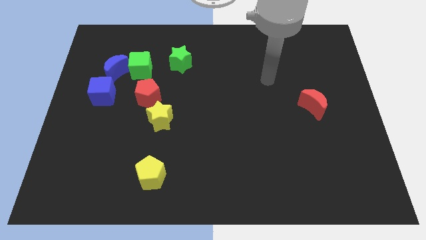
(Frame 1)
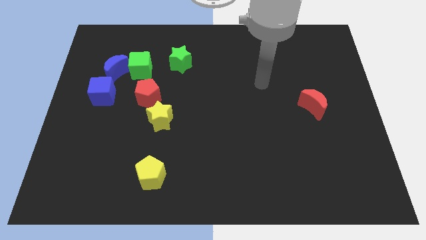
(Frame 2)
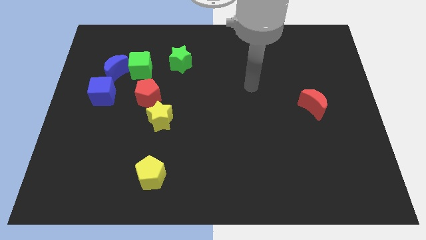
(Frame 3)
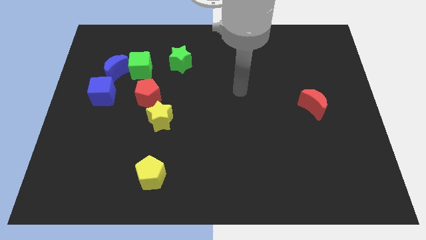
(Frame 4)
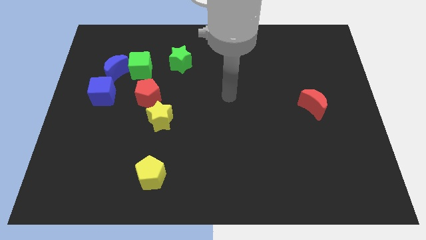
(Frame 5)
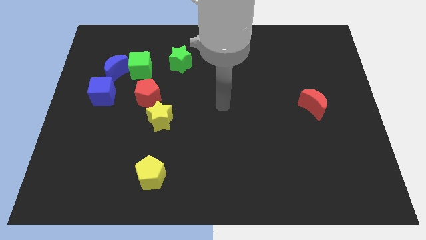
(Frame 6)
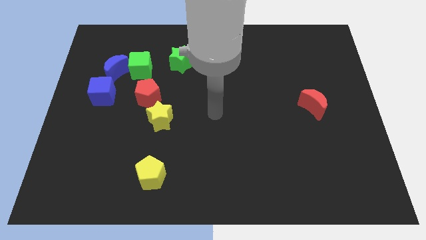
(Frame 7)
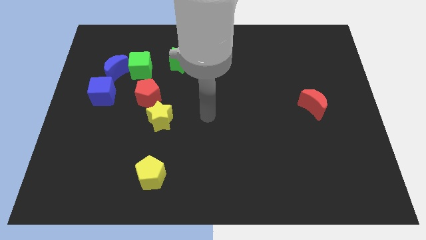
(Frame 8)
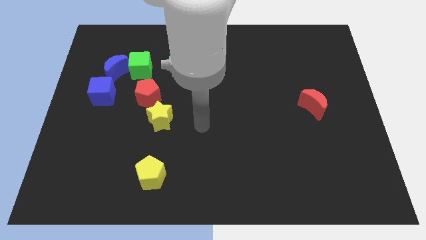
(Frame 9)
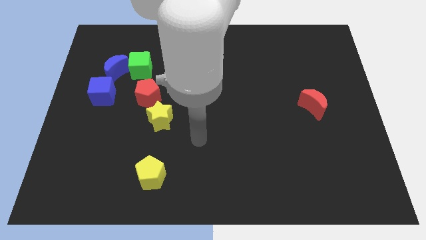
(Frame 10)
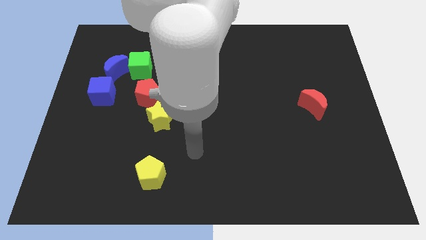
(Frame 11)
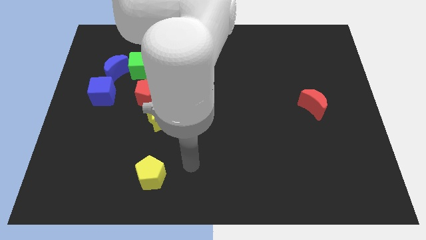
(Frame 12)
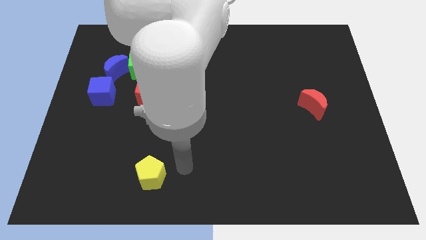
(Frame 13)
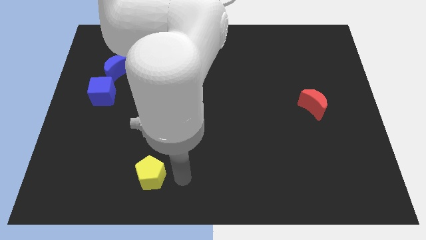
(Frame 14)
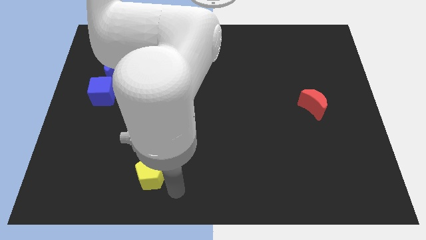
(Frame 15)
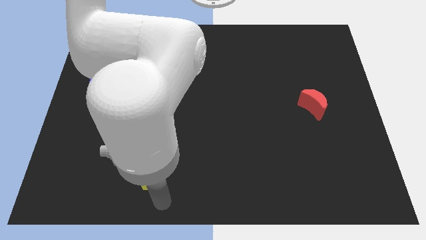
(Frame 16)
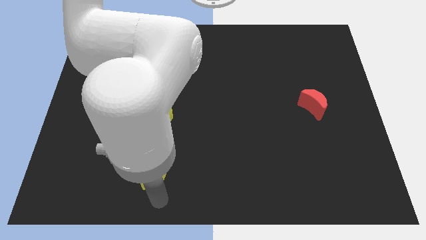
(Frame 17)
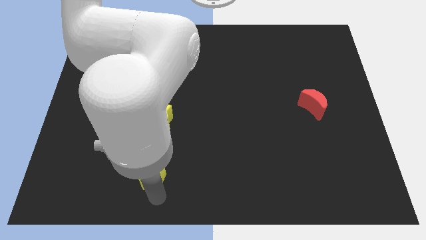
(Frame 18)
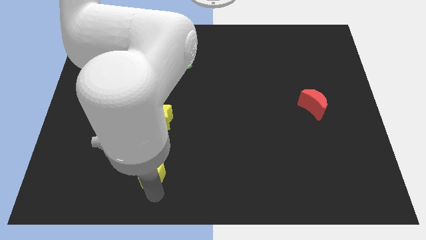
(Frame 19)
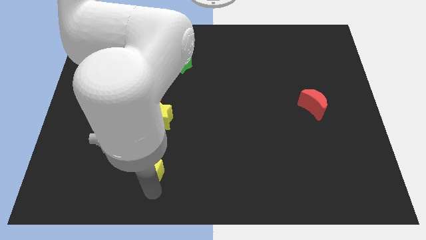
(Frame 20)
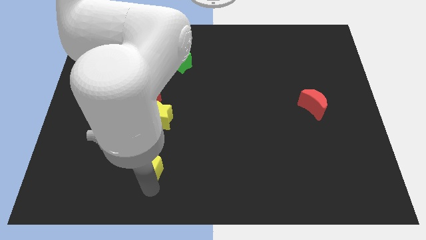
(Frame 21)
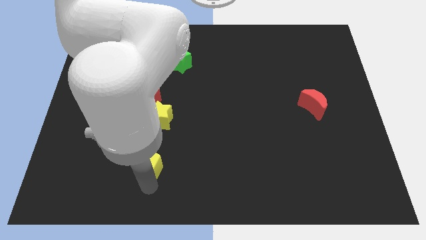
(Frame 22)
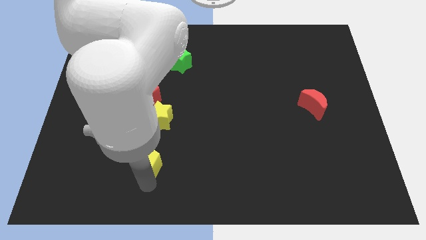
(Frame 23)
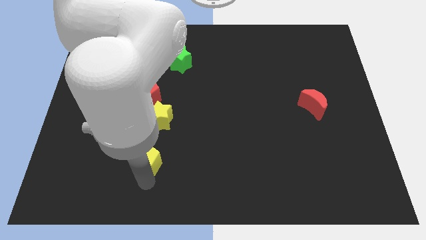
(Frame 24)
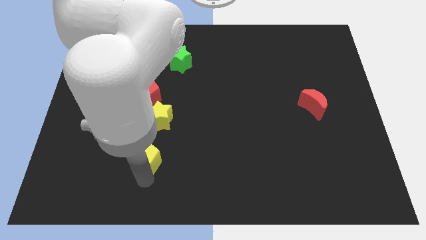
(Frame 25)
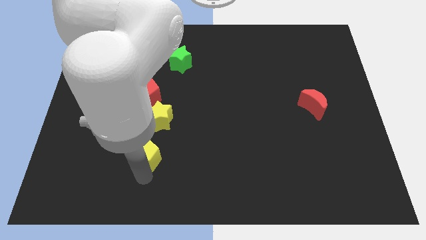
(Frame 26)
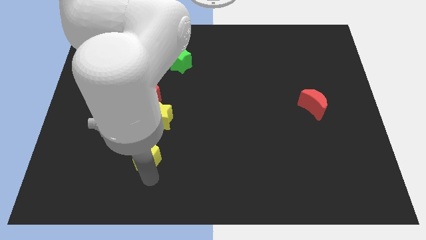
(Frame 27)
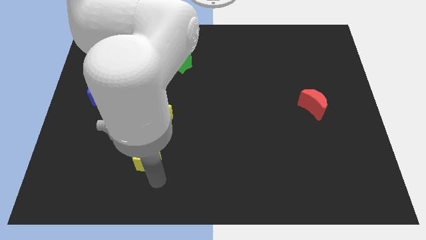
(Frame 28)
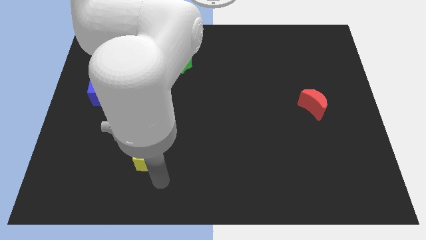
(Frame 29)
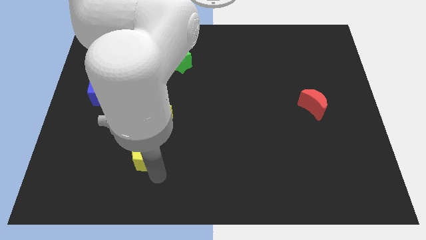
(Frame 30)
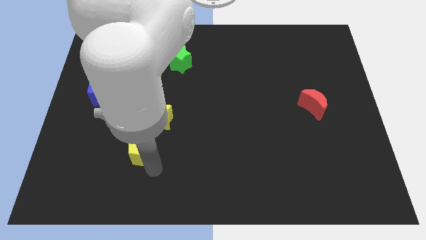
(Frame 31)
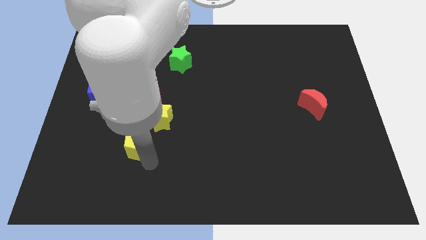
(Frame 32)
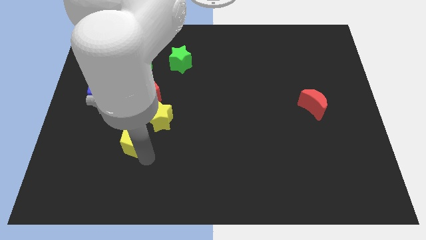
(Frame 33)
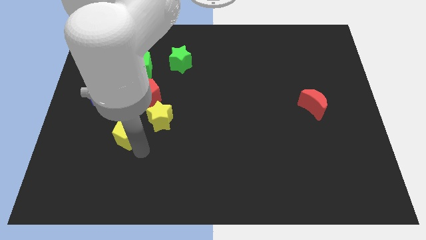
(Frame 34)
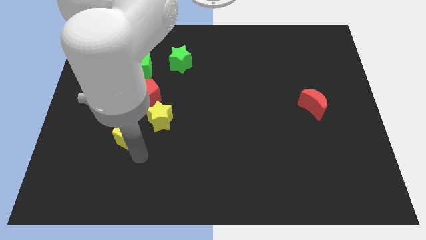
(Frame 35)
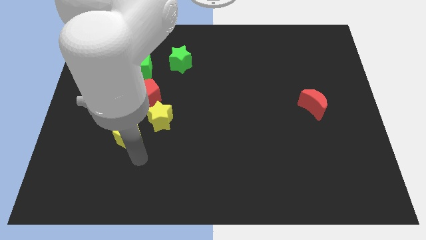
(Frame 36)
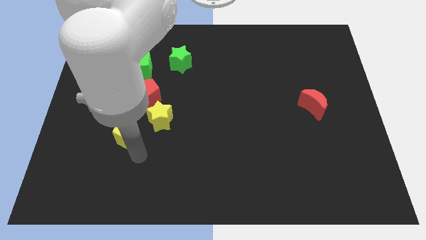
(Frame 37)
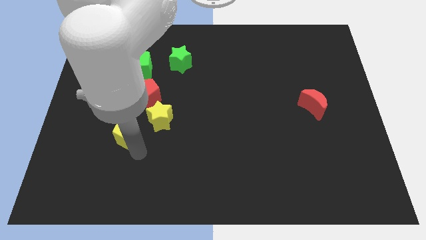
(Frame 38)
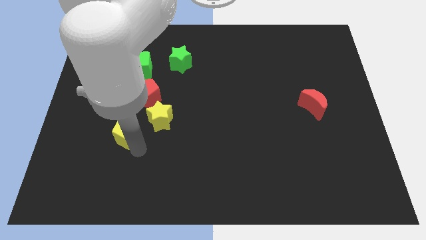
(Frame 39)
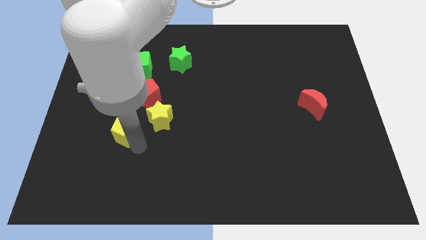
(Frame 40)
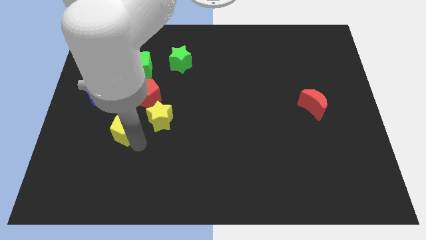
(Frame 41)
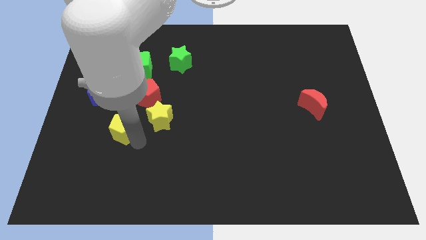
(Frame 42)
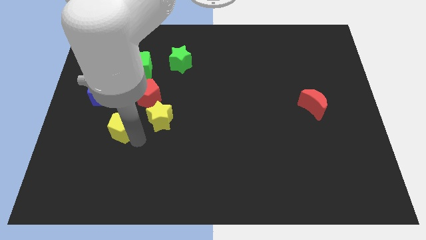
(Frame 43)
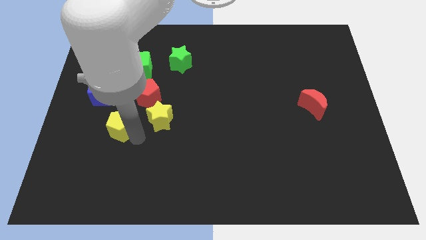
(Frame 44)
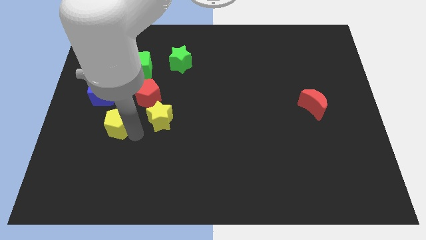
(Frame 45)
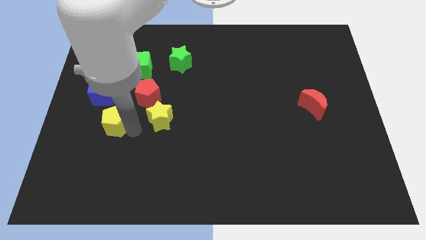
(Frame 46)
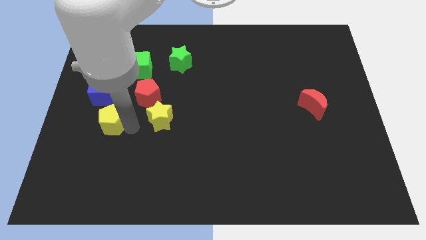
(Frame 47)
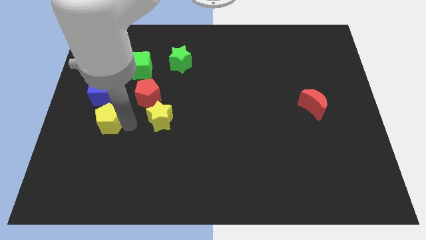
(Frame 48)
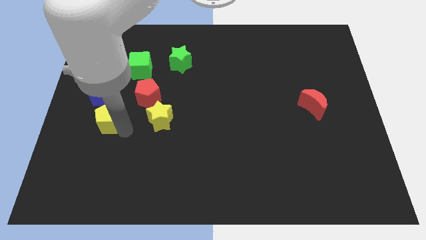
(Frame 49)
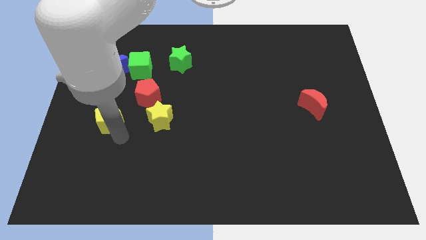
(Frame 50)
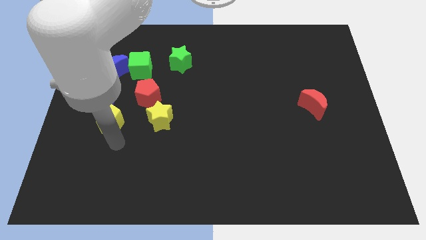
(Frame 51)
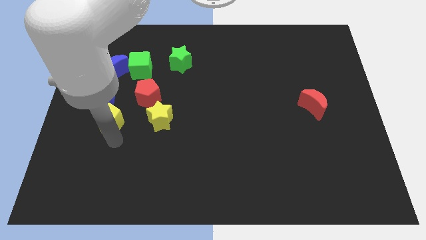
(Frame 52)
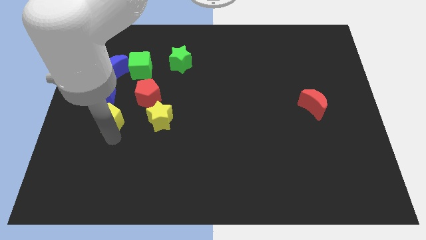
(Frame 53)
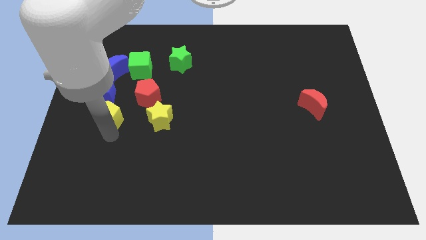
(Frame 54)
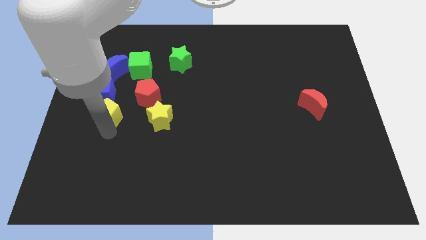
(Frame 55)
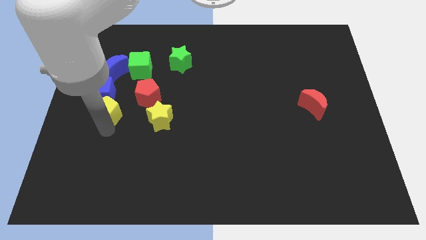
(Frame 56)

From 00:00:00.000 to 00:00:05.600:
move the yellow pentagon to the blue cube

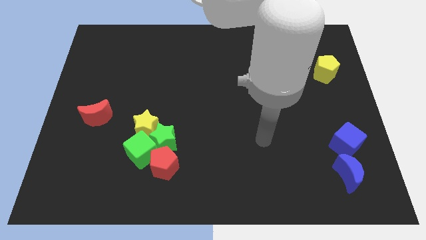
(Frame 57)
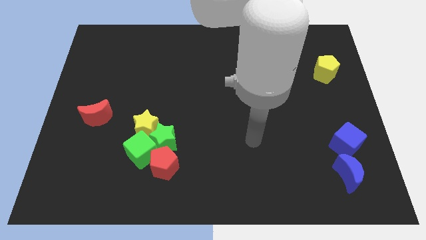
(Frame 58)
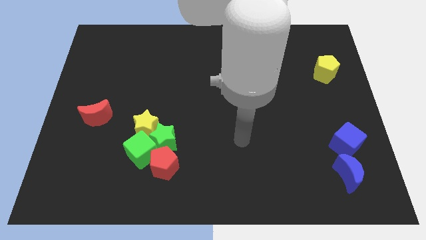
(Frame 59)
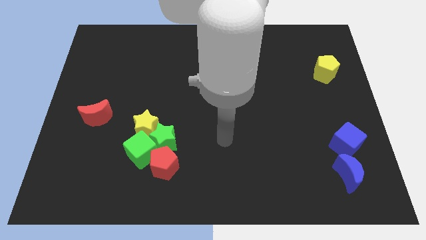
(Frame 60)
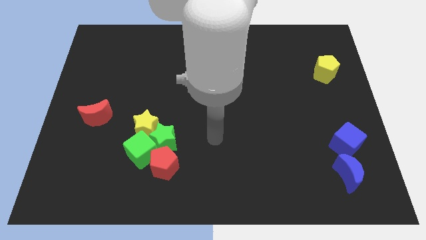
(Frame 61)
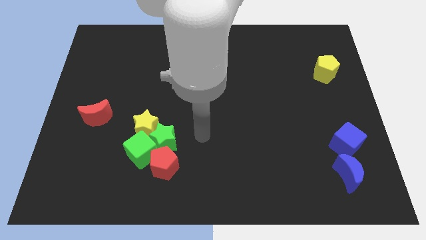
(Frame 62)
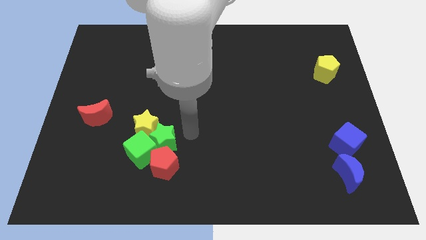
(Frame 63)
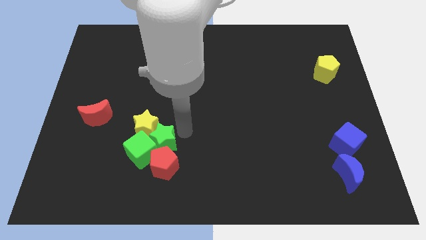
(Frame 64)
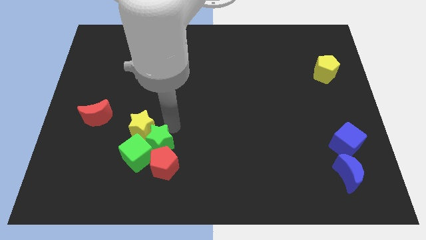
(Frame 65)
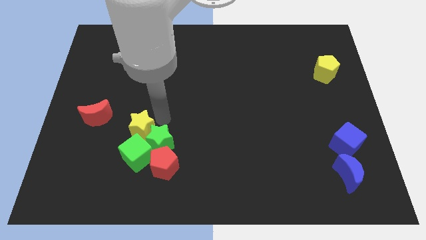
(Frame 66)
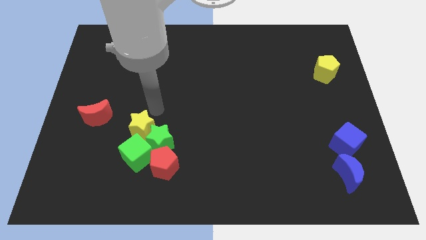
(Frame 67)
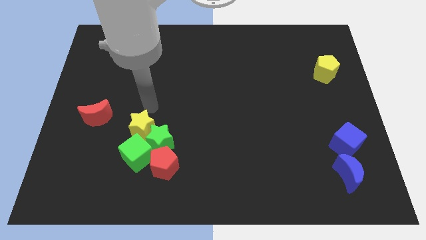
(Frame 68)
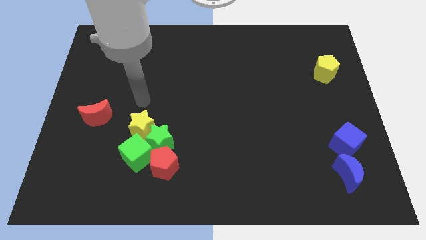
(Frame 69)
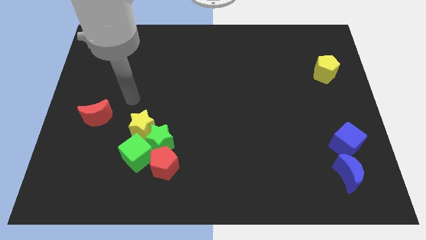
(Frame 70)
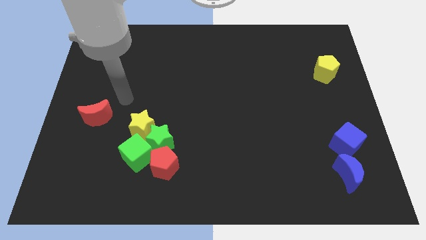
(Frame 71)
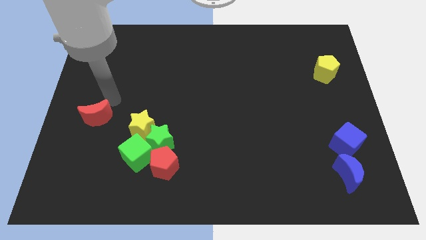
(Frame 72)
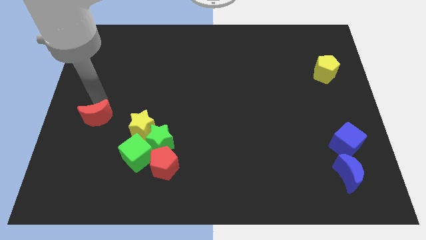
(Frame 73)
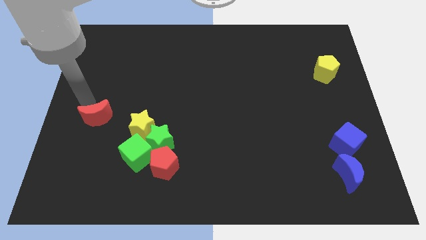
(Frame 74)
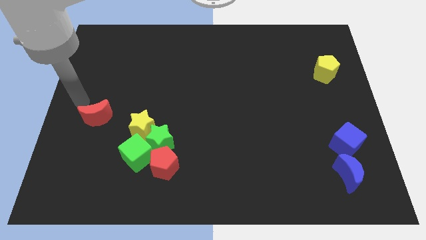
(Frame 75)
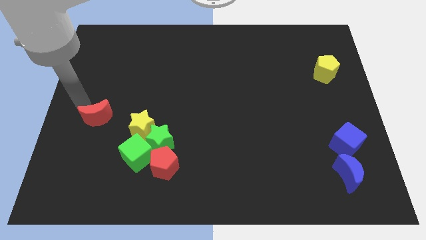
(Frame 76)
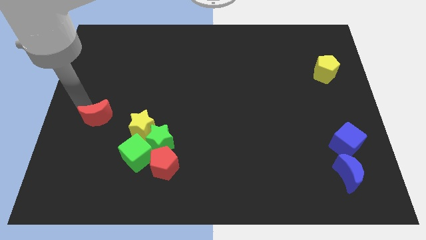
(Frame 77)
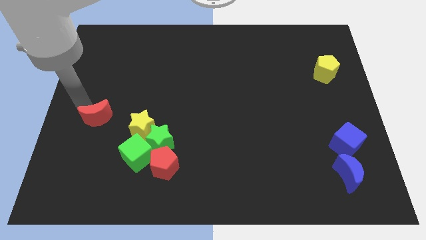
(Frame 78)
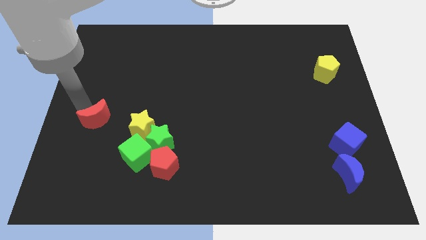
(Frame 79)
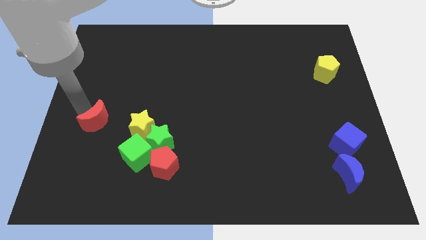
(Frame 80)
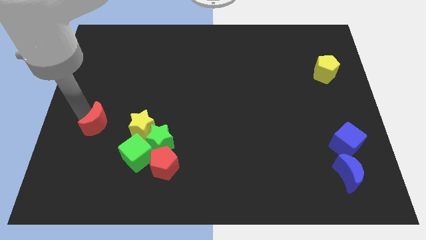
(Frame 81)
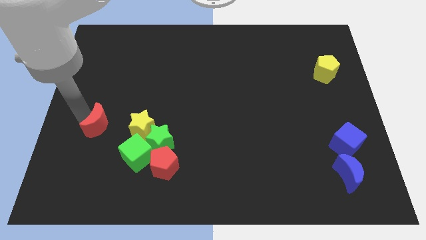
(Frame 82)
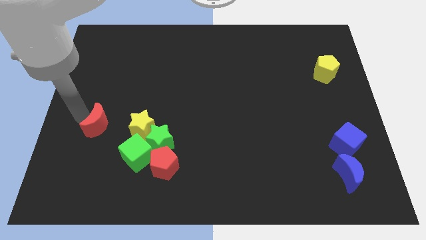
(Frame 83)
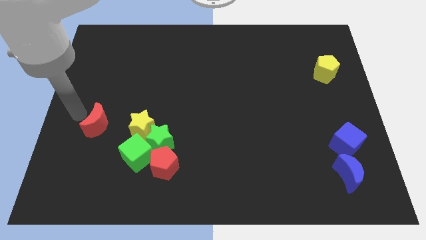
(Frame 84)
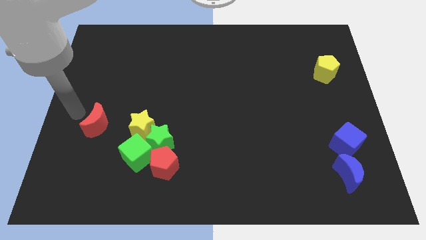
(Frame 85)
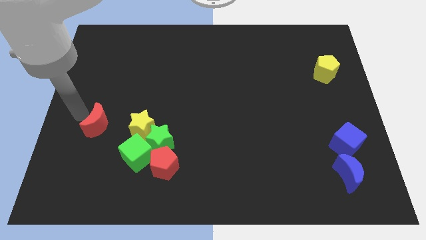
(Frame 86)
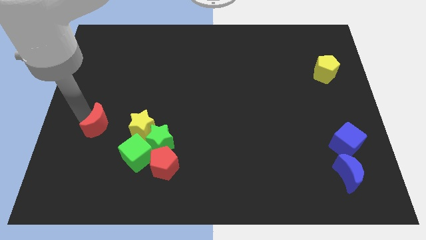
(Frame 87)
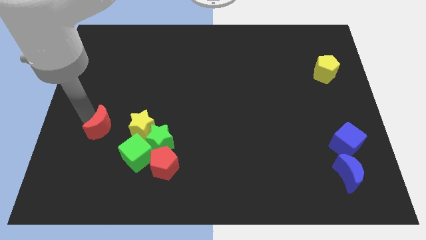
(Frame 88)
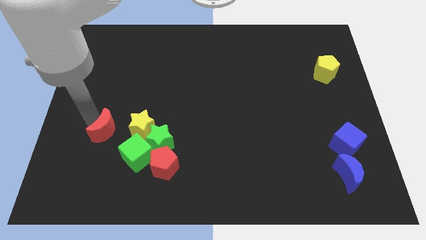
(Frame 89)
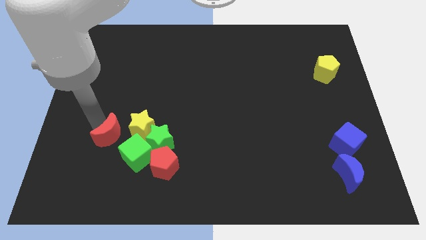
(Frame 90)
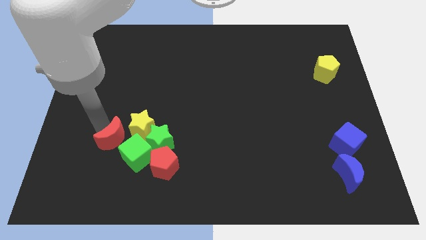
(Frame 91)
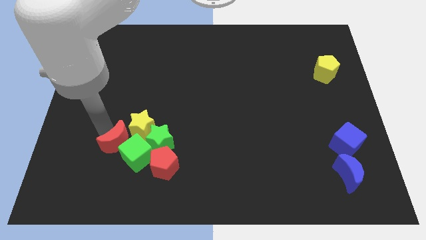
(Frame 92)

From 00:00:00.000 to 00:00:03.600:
push the red moon towards the green cube
